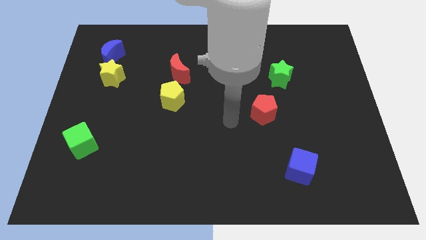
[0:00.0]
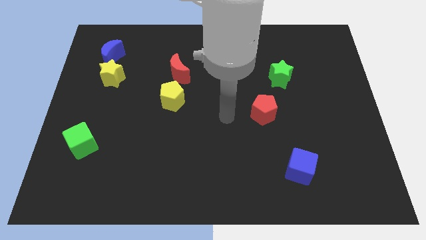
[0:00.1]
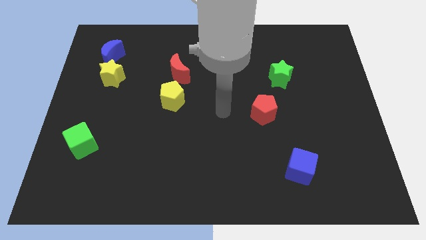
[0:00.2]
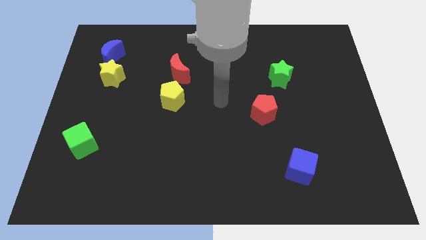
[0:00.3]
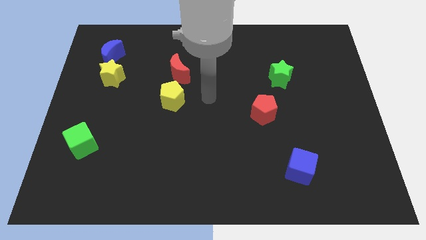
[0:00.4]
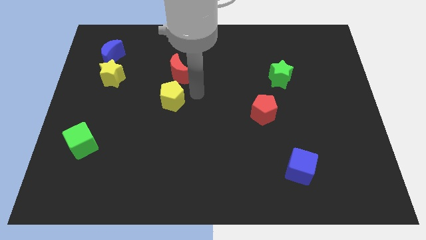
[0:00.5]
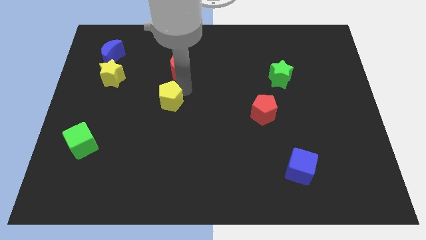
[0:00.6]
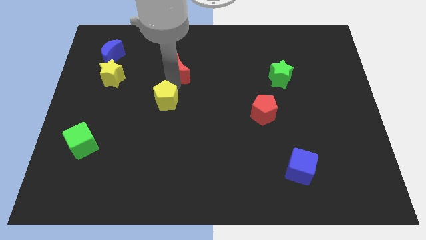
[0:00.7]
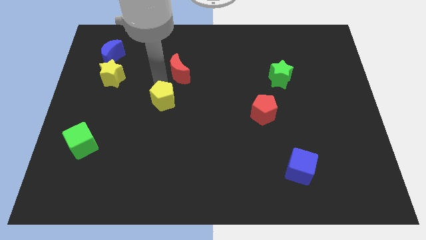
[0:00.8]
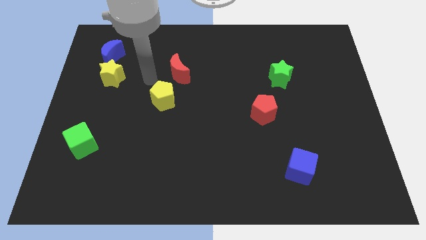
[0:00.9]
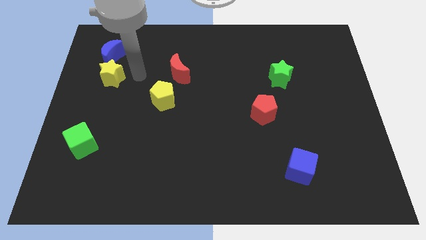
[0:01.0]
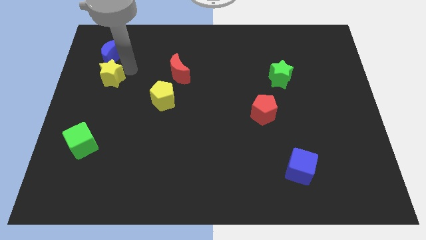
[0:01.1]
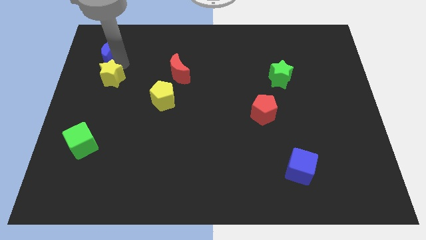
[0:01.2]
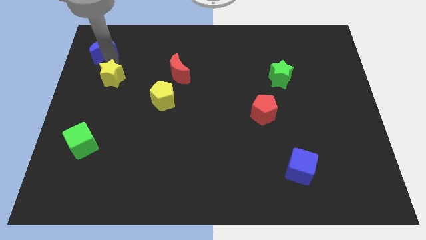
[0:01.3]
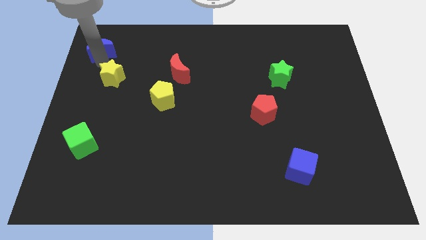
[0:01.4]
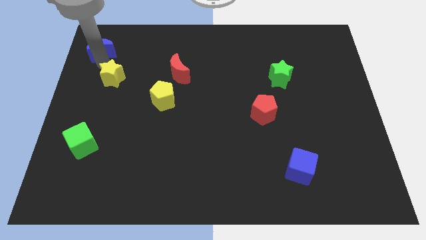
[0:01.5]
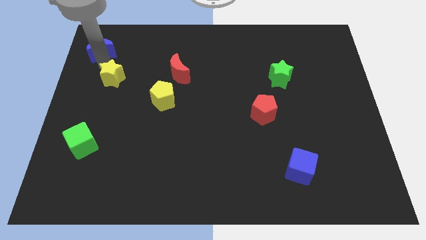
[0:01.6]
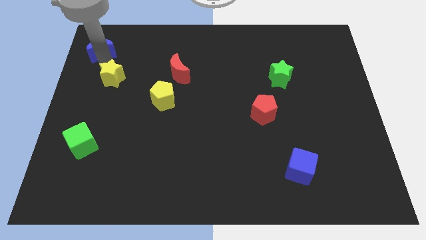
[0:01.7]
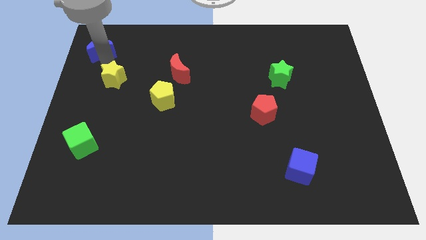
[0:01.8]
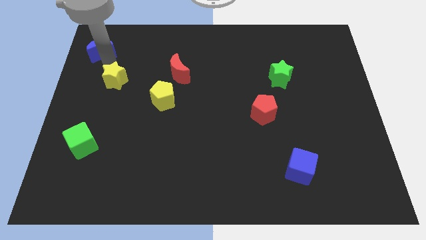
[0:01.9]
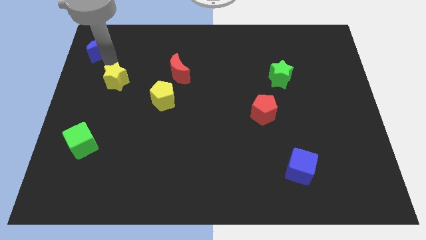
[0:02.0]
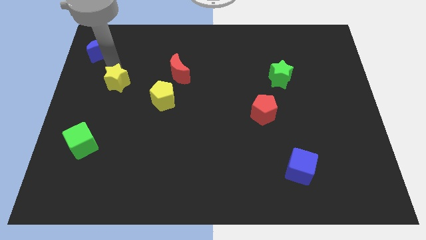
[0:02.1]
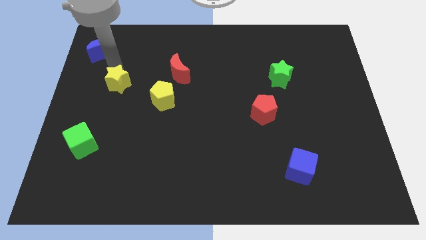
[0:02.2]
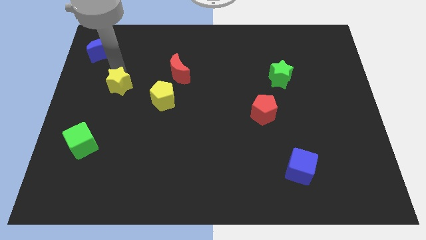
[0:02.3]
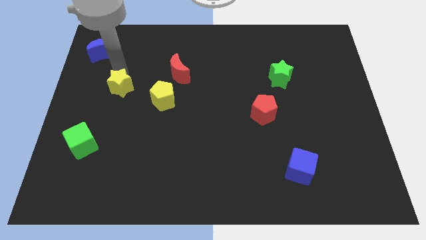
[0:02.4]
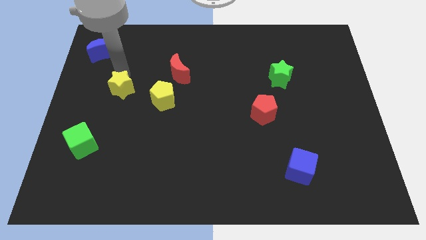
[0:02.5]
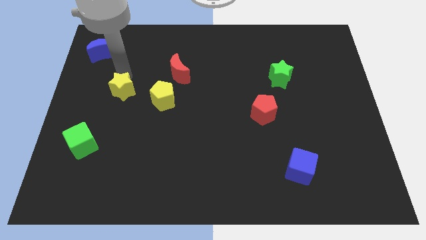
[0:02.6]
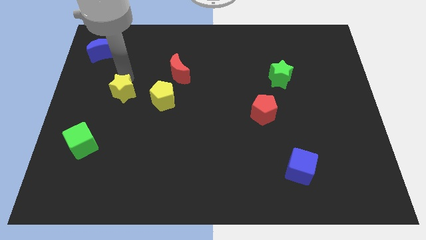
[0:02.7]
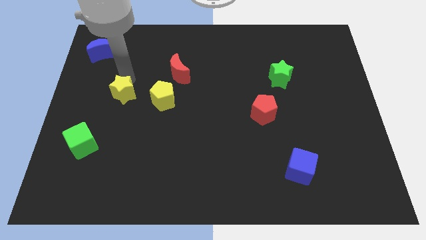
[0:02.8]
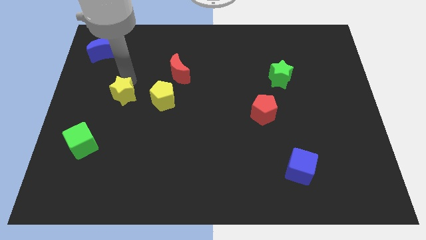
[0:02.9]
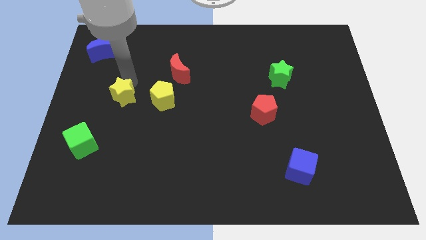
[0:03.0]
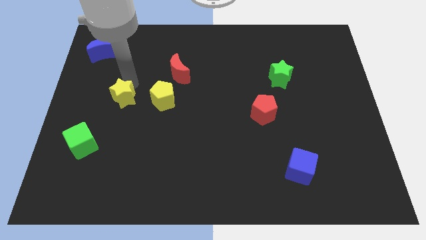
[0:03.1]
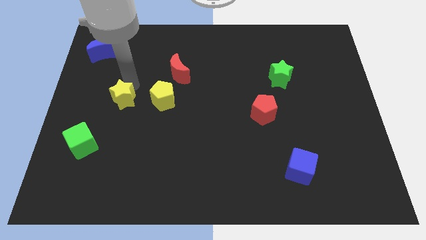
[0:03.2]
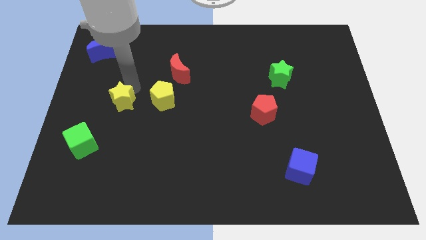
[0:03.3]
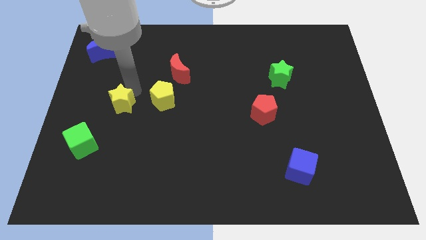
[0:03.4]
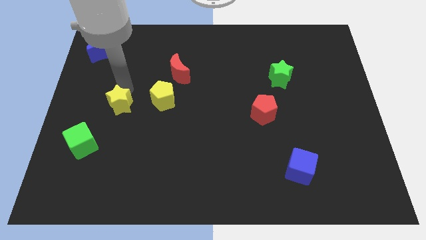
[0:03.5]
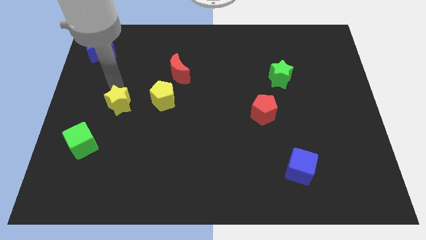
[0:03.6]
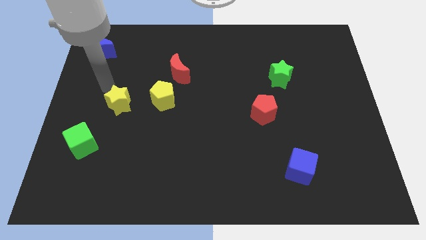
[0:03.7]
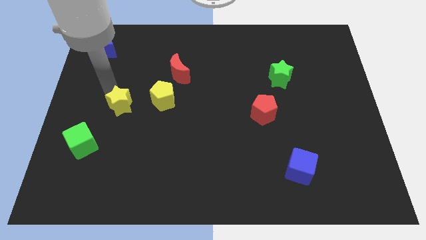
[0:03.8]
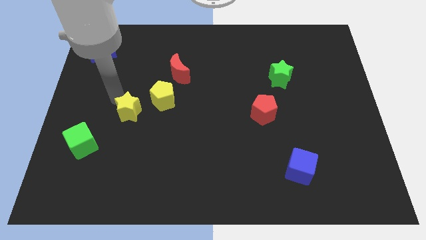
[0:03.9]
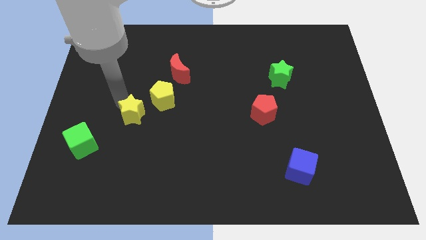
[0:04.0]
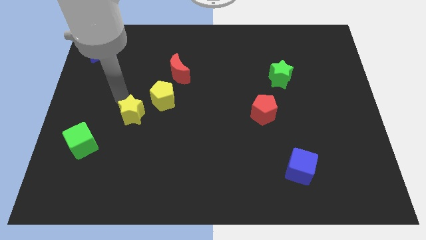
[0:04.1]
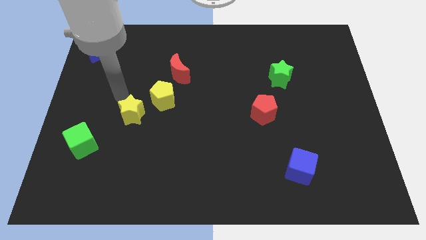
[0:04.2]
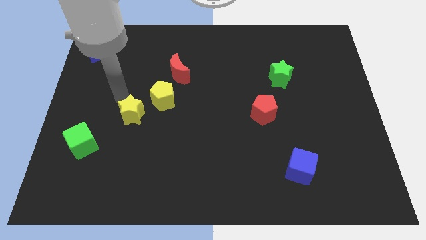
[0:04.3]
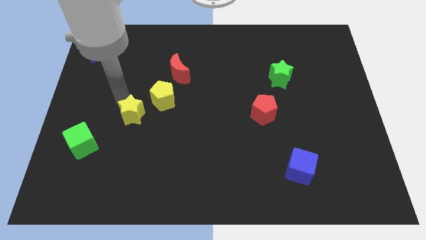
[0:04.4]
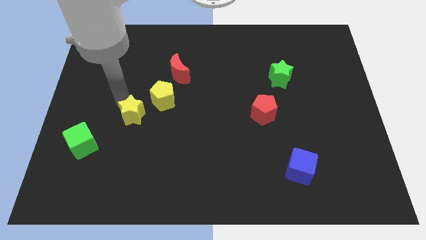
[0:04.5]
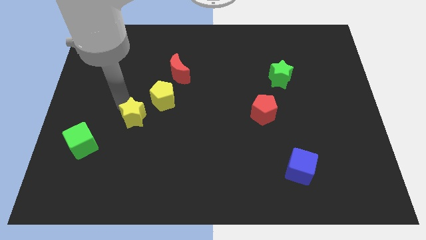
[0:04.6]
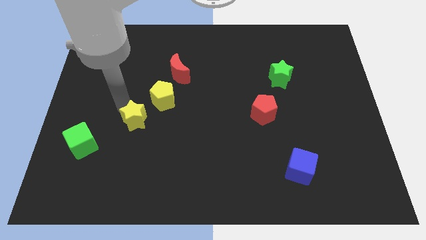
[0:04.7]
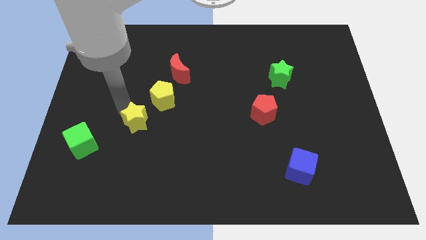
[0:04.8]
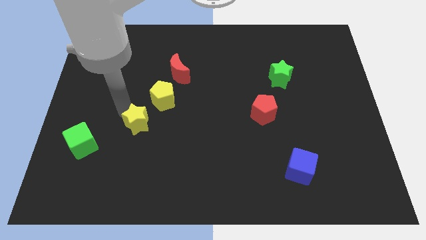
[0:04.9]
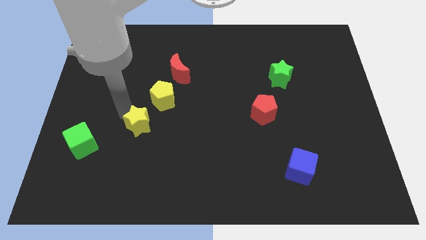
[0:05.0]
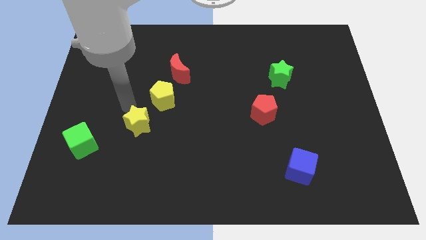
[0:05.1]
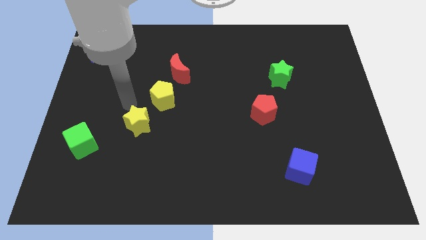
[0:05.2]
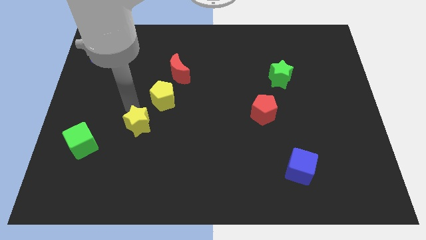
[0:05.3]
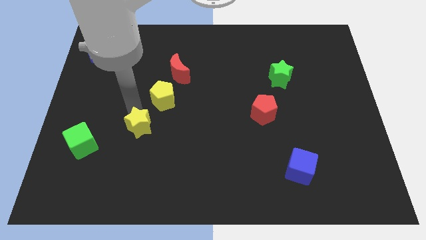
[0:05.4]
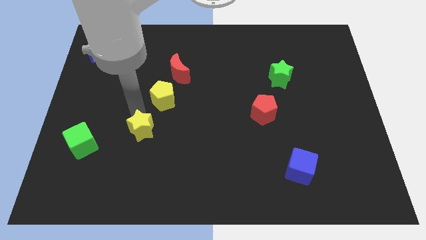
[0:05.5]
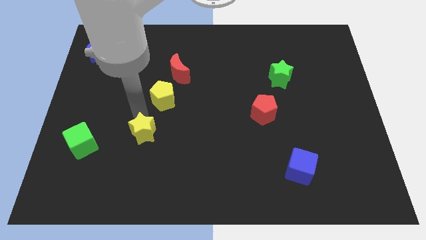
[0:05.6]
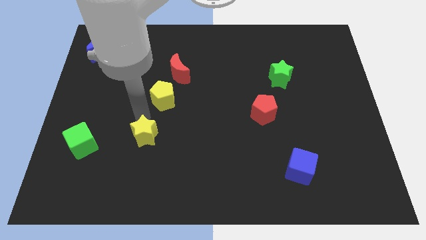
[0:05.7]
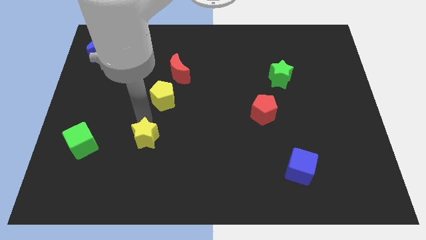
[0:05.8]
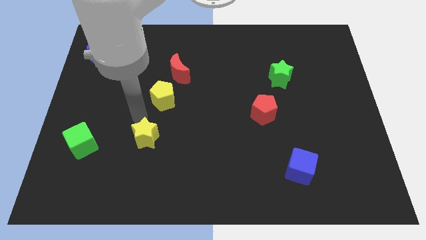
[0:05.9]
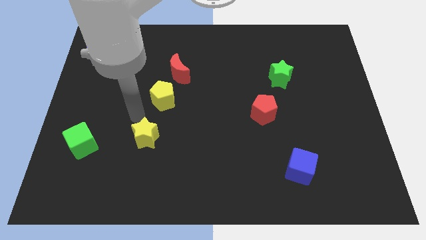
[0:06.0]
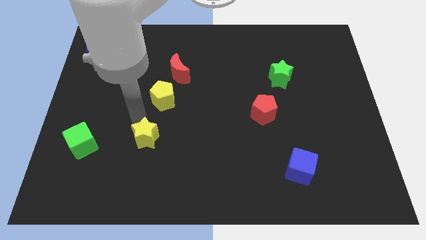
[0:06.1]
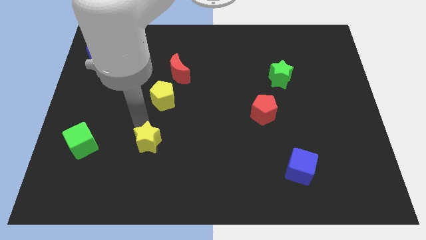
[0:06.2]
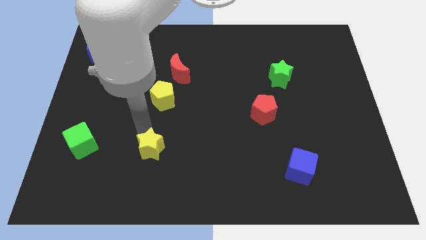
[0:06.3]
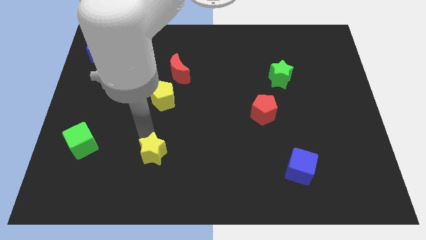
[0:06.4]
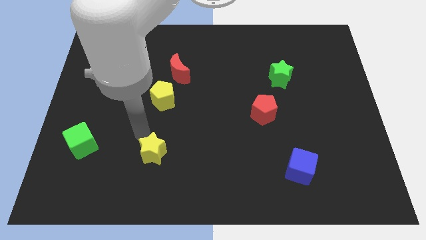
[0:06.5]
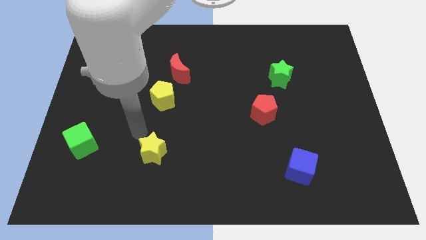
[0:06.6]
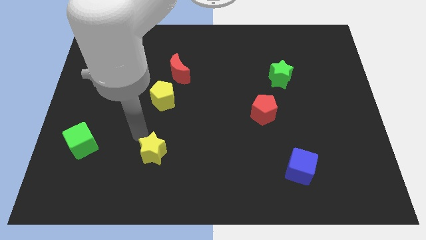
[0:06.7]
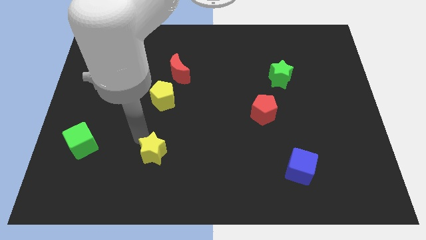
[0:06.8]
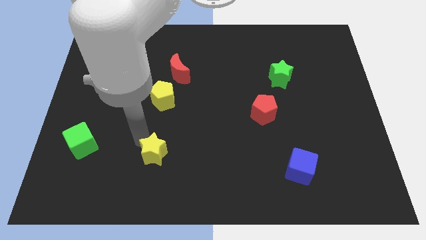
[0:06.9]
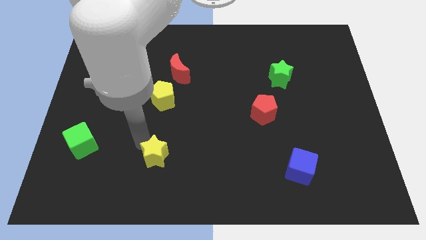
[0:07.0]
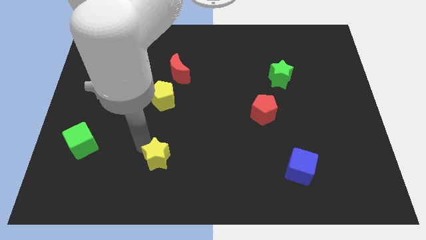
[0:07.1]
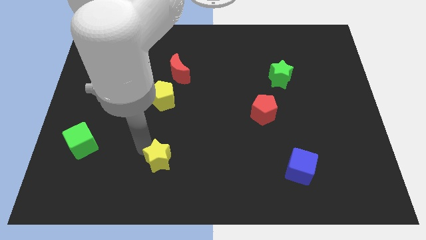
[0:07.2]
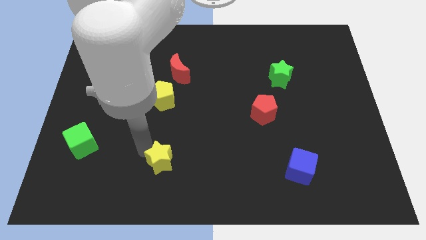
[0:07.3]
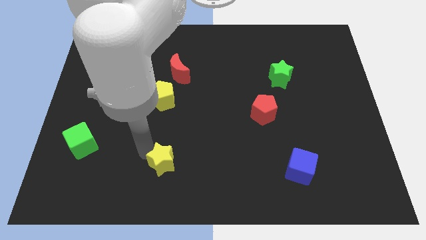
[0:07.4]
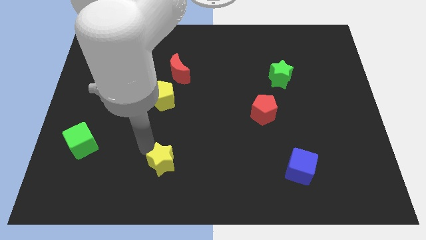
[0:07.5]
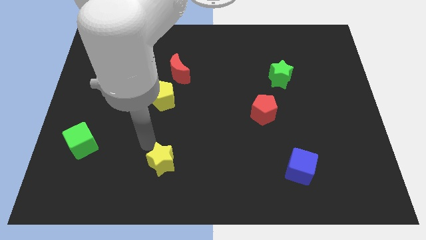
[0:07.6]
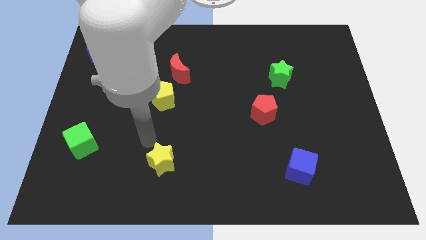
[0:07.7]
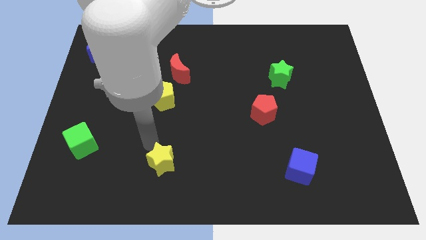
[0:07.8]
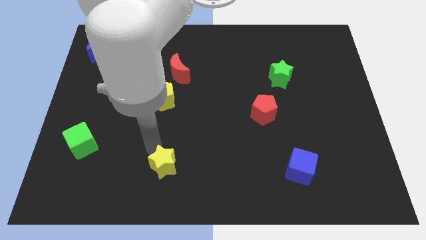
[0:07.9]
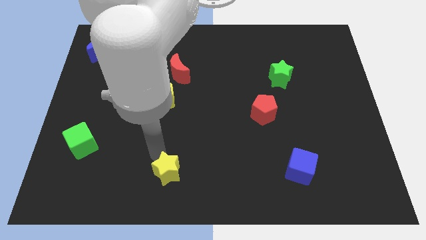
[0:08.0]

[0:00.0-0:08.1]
push the yellow star to the bottom

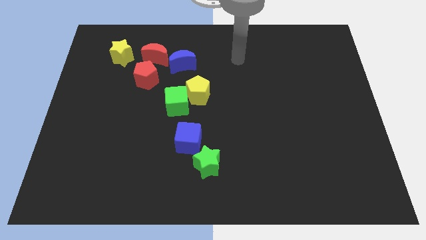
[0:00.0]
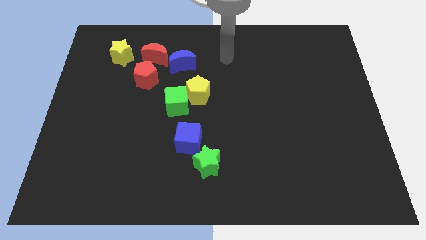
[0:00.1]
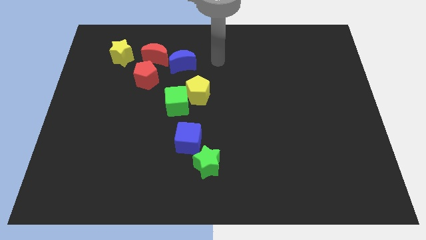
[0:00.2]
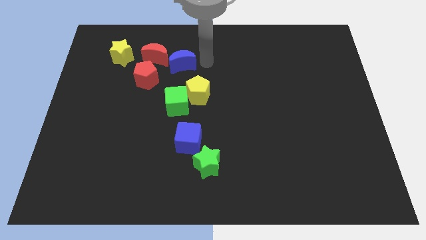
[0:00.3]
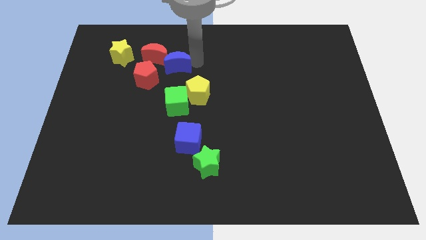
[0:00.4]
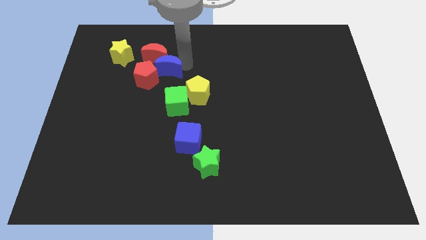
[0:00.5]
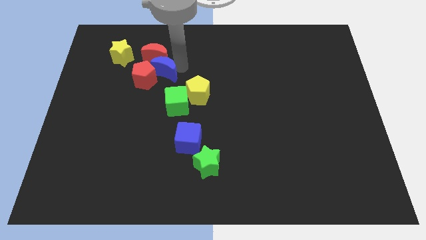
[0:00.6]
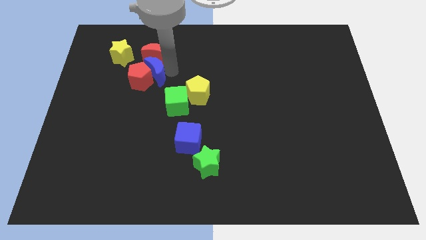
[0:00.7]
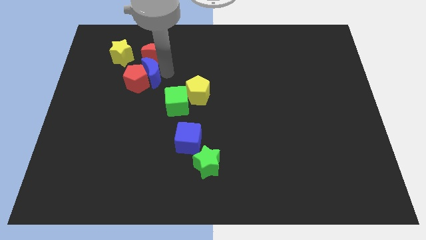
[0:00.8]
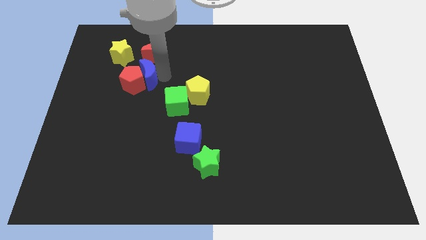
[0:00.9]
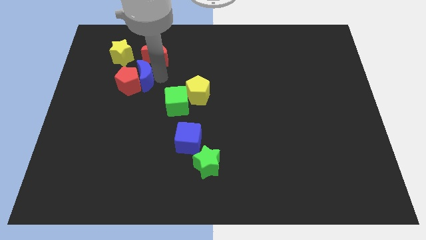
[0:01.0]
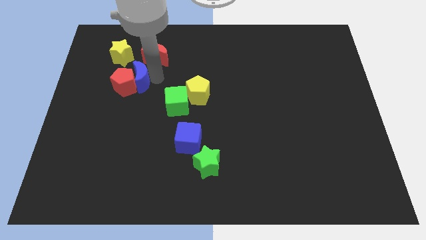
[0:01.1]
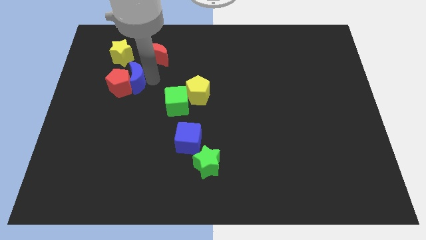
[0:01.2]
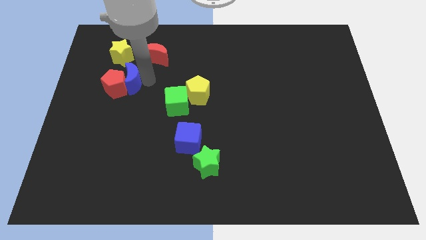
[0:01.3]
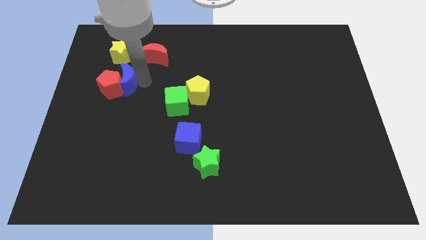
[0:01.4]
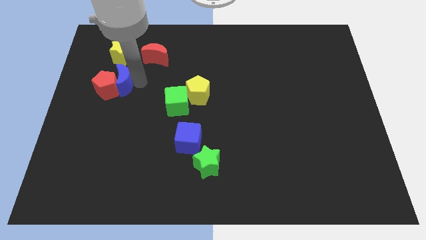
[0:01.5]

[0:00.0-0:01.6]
put the red pentagon to the center left
